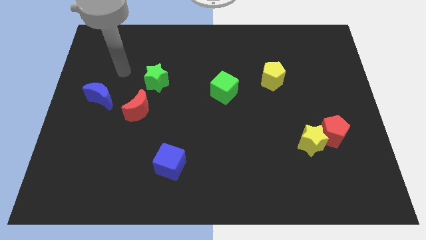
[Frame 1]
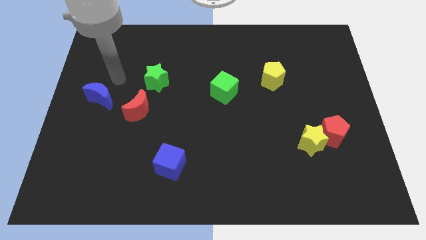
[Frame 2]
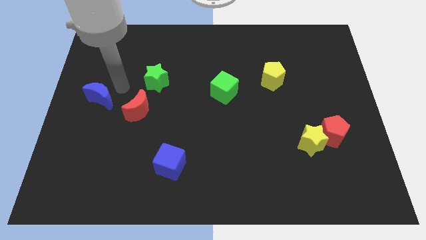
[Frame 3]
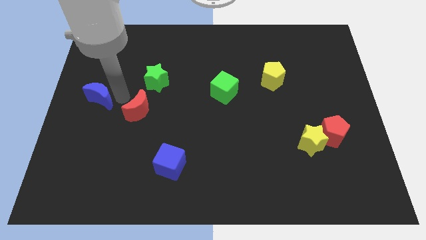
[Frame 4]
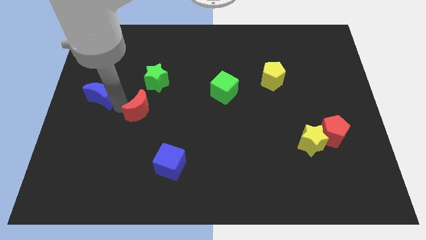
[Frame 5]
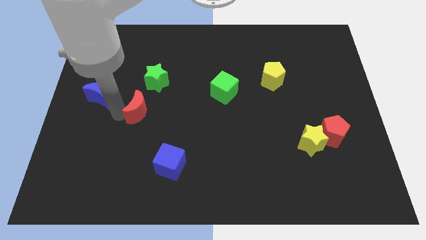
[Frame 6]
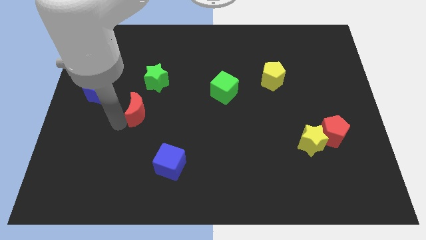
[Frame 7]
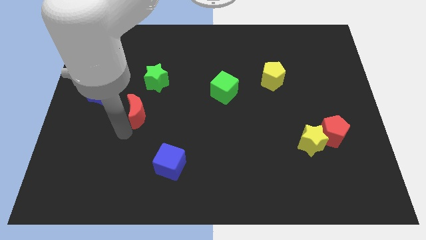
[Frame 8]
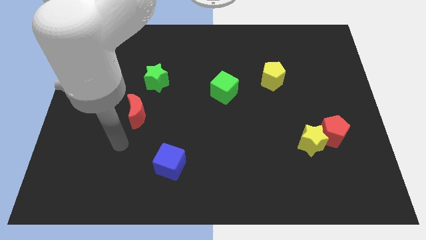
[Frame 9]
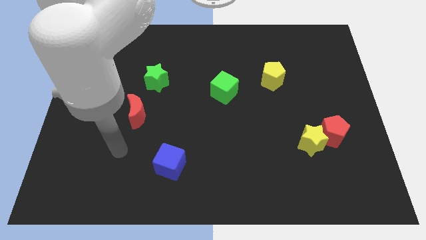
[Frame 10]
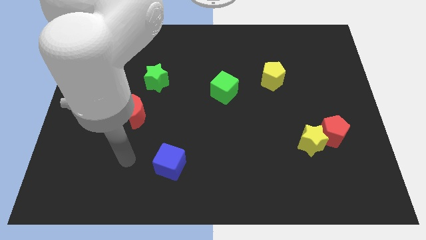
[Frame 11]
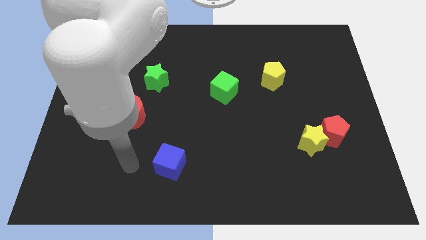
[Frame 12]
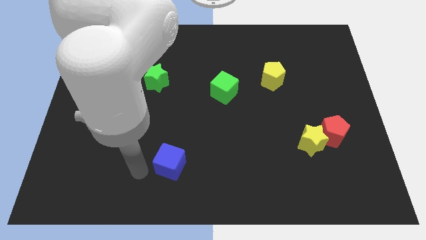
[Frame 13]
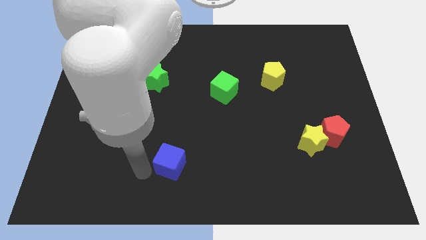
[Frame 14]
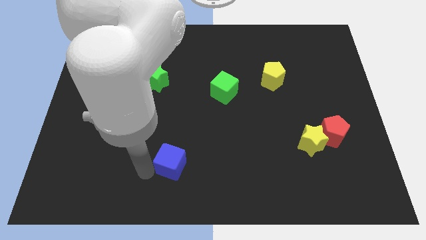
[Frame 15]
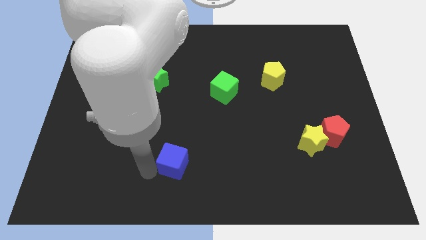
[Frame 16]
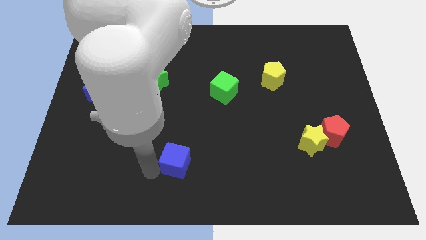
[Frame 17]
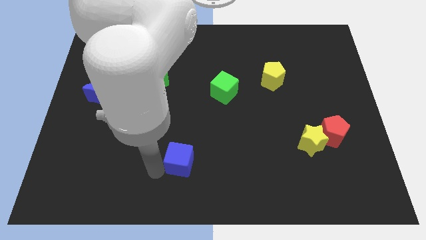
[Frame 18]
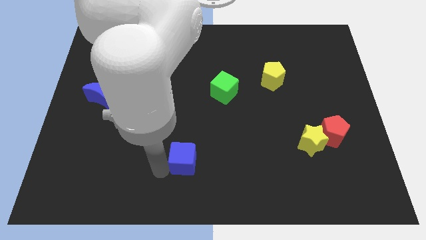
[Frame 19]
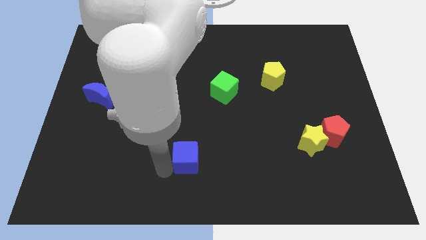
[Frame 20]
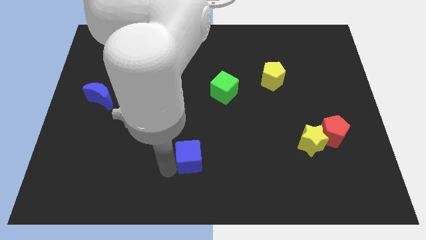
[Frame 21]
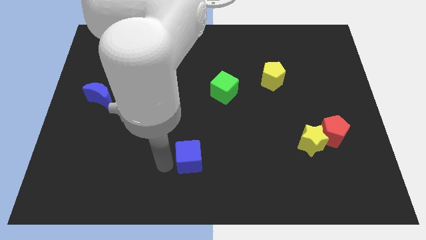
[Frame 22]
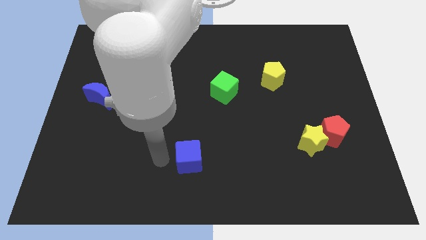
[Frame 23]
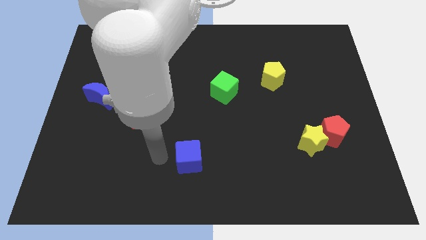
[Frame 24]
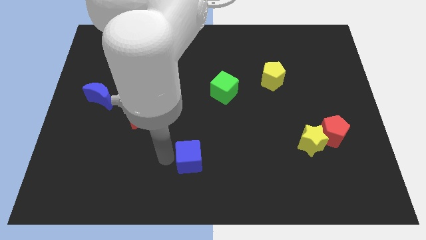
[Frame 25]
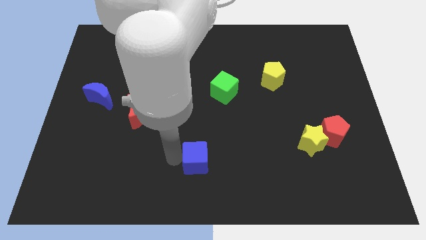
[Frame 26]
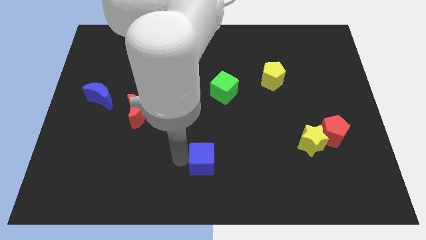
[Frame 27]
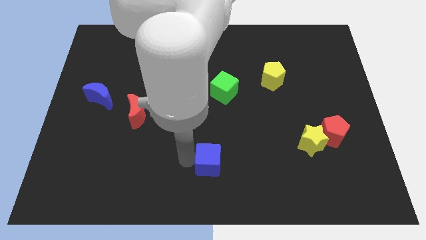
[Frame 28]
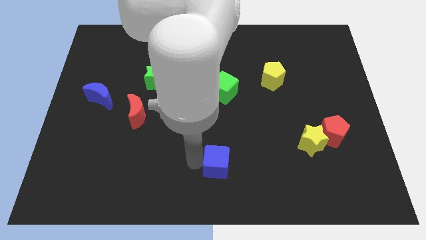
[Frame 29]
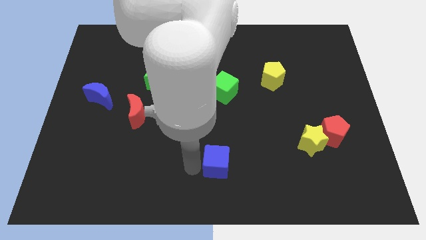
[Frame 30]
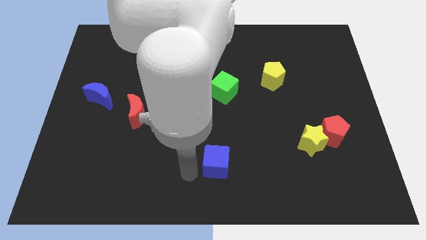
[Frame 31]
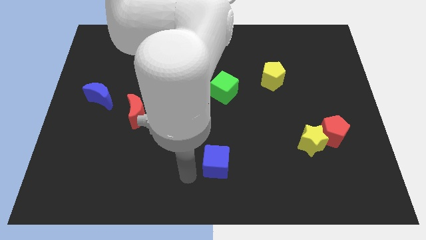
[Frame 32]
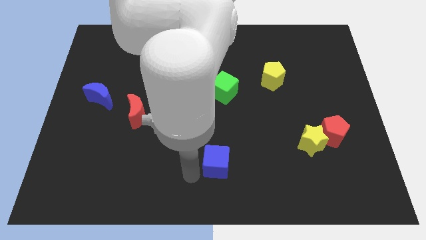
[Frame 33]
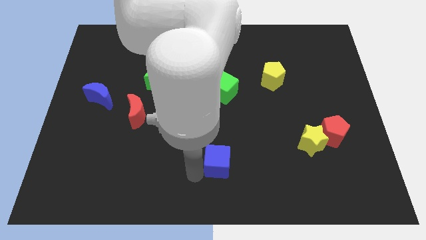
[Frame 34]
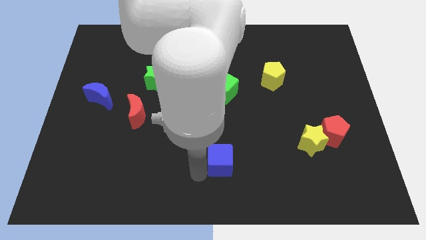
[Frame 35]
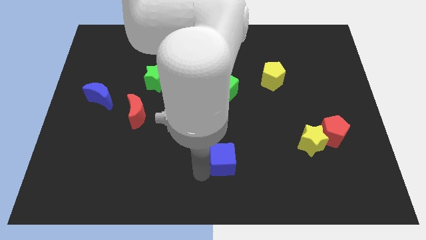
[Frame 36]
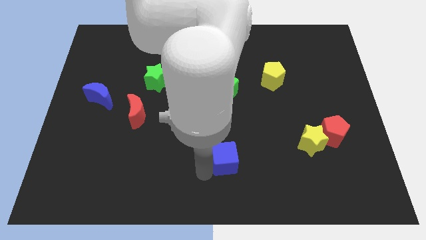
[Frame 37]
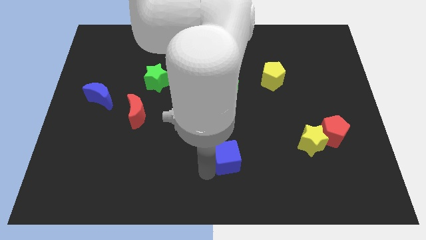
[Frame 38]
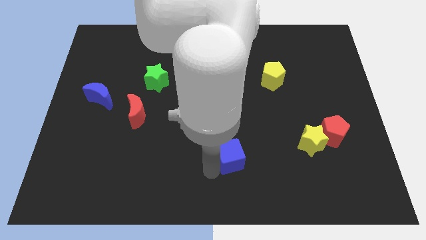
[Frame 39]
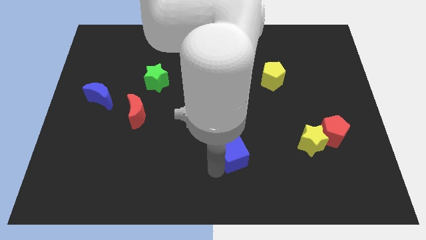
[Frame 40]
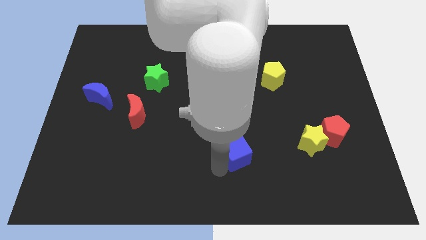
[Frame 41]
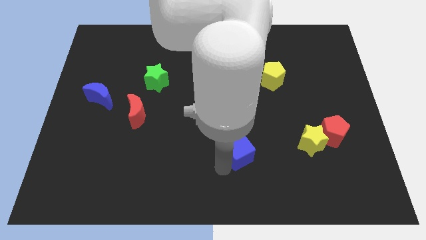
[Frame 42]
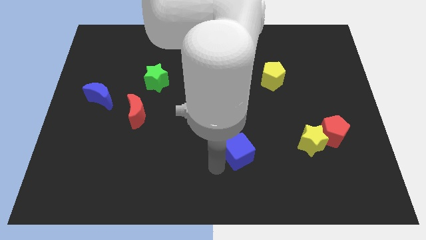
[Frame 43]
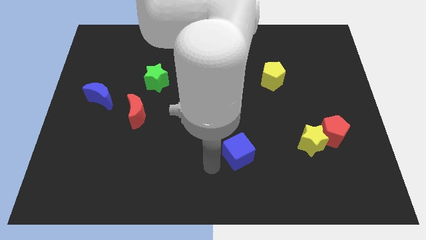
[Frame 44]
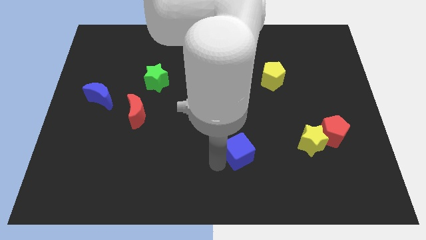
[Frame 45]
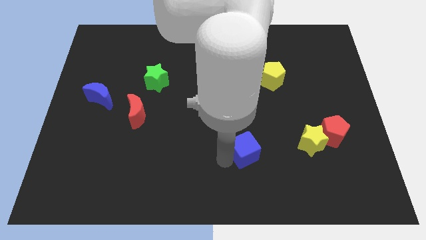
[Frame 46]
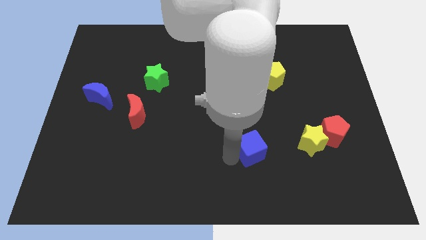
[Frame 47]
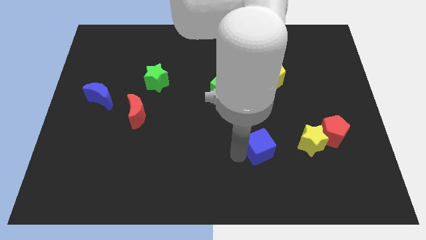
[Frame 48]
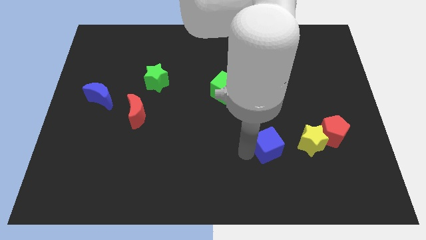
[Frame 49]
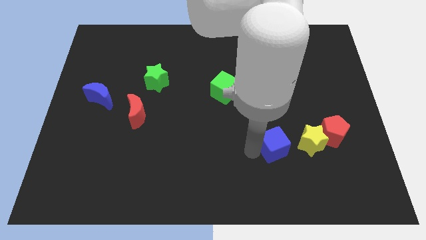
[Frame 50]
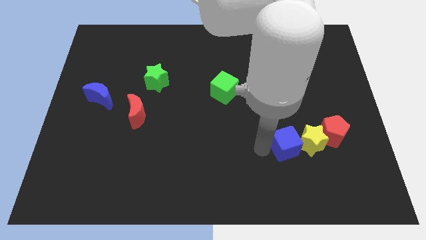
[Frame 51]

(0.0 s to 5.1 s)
put the blue cube close to the yellow star
